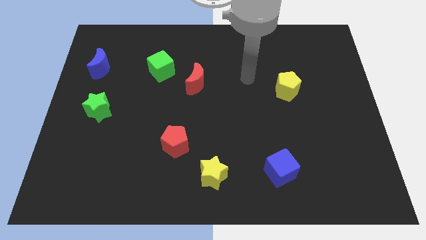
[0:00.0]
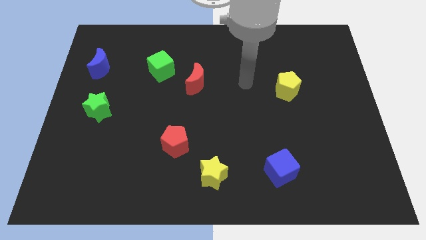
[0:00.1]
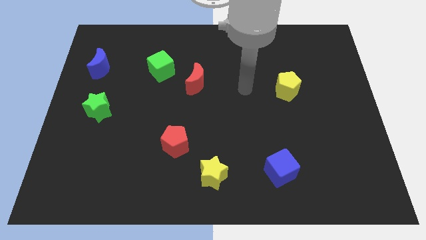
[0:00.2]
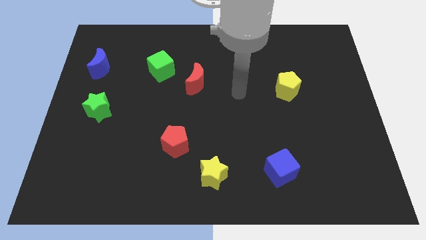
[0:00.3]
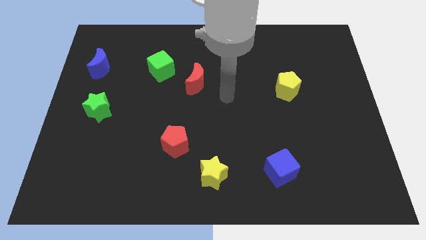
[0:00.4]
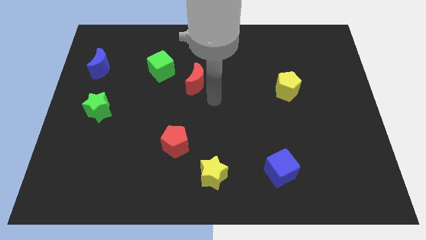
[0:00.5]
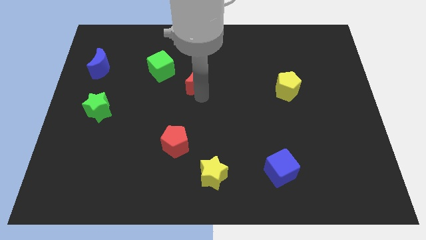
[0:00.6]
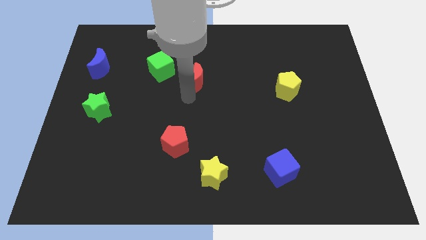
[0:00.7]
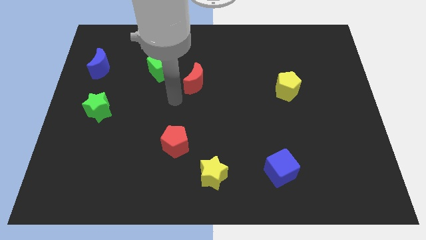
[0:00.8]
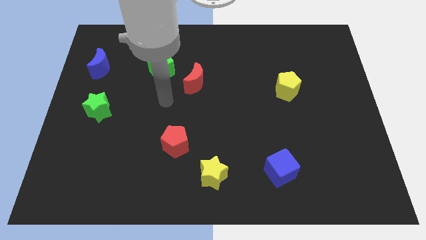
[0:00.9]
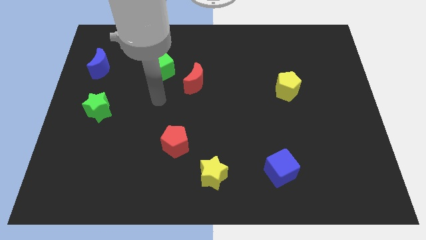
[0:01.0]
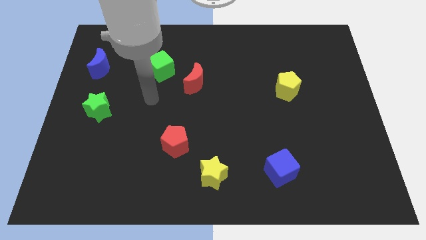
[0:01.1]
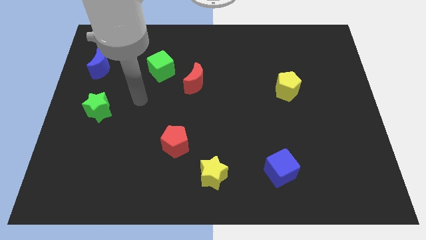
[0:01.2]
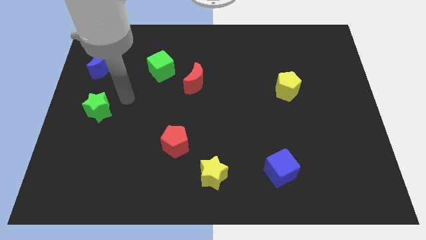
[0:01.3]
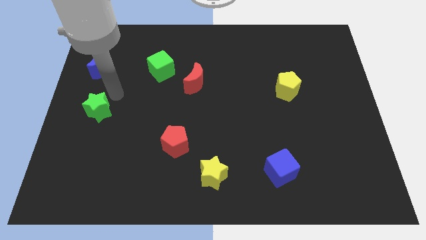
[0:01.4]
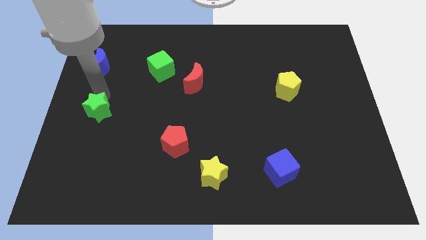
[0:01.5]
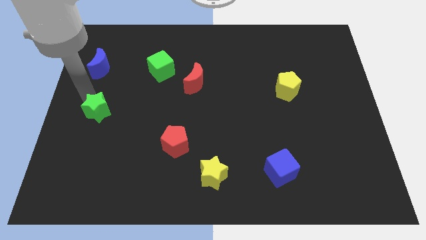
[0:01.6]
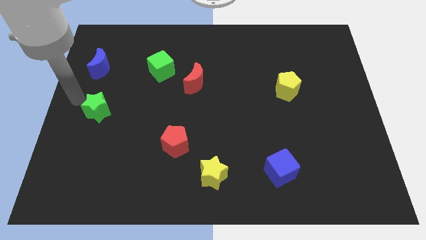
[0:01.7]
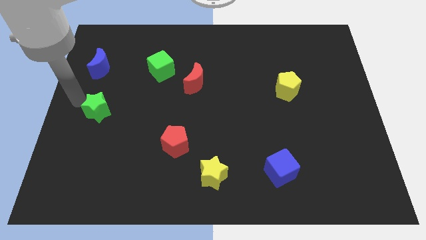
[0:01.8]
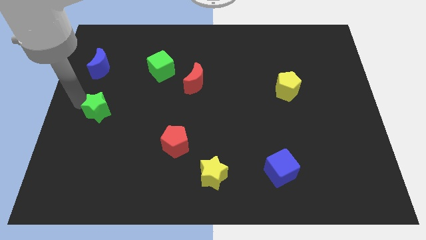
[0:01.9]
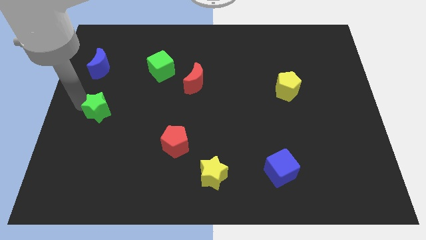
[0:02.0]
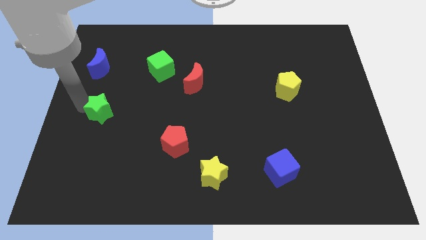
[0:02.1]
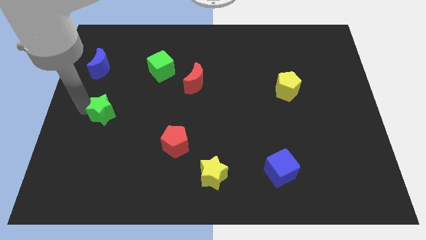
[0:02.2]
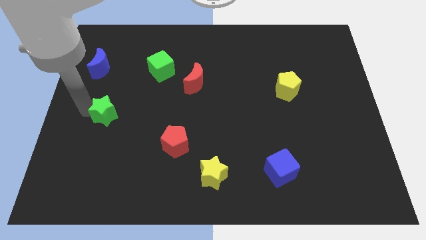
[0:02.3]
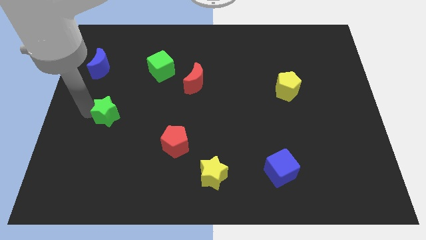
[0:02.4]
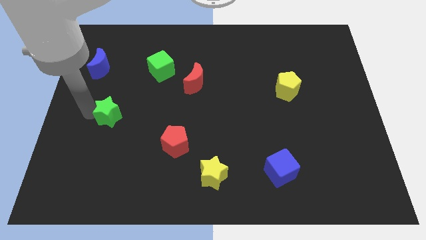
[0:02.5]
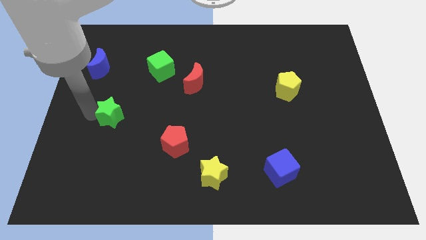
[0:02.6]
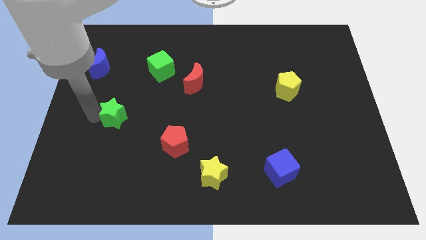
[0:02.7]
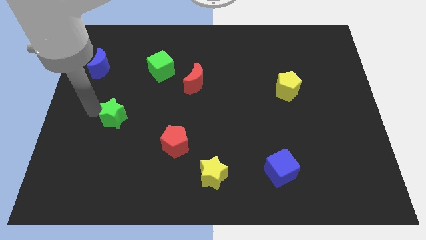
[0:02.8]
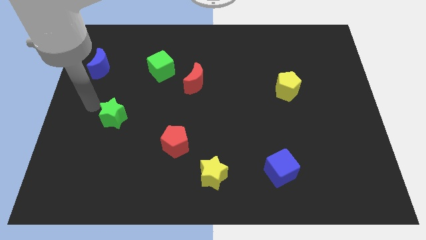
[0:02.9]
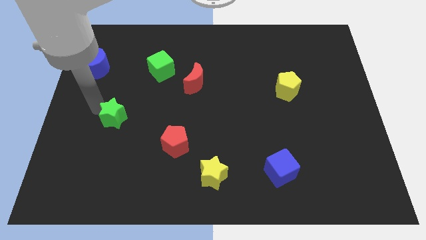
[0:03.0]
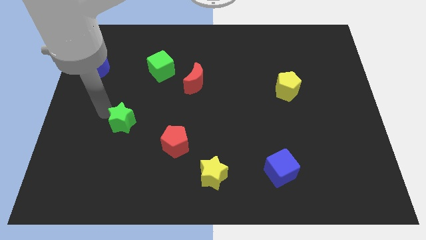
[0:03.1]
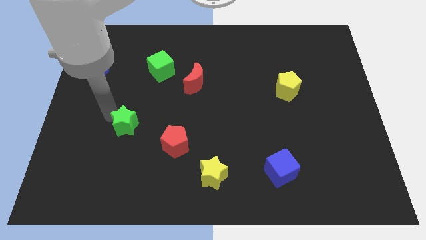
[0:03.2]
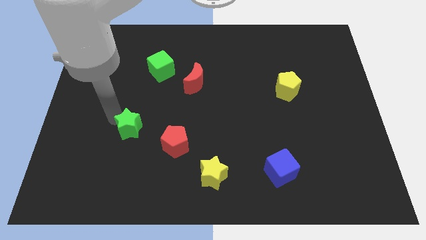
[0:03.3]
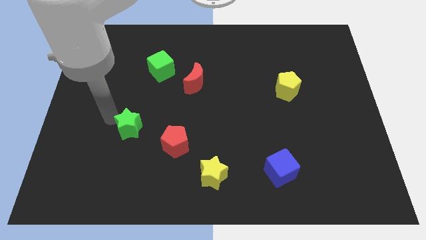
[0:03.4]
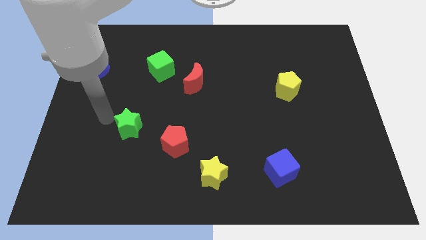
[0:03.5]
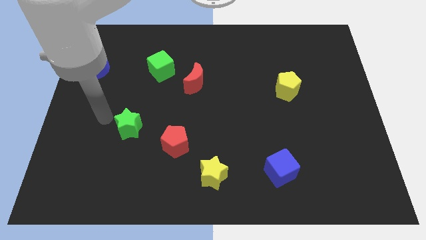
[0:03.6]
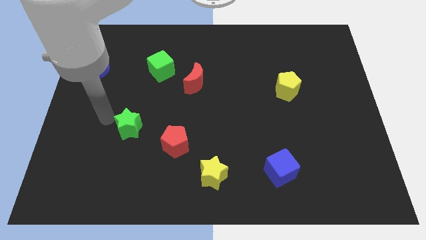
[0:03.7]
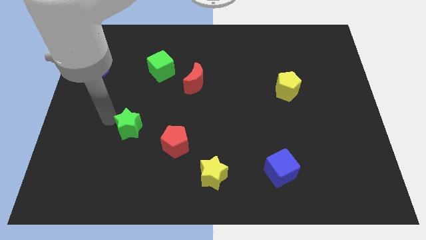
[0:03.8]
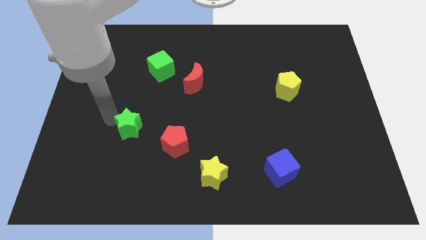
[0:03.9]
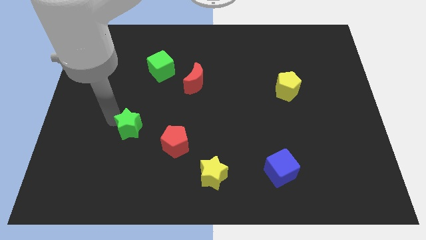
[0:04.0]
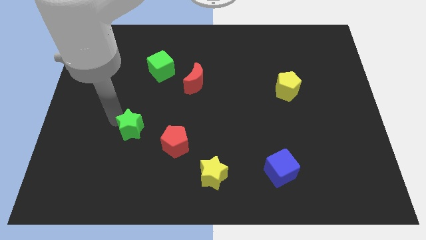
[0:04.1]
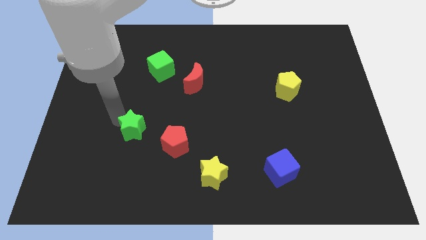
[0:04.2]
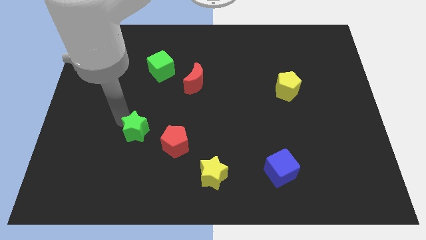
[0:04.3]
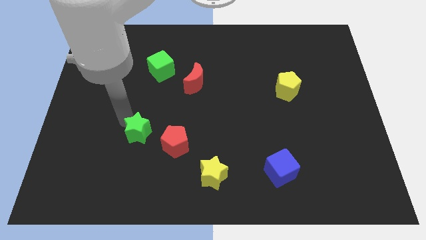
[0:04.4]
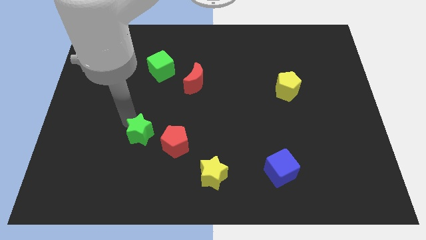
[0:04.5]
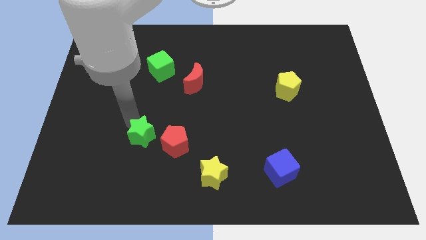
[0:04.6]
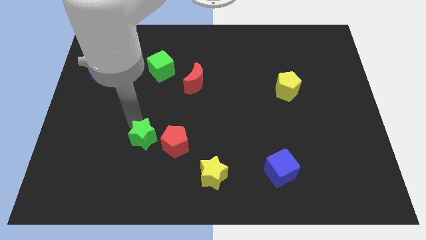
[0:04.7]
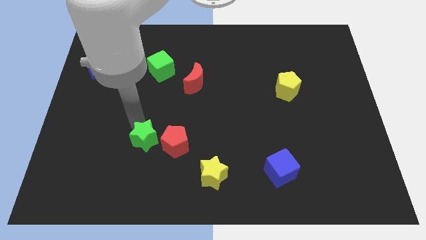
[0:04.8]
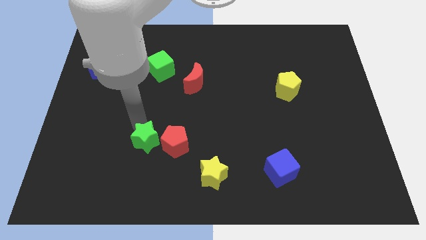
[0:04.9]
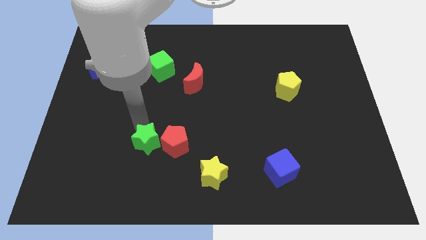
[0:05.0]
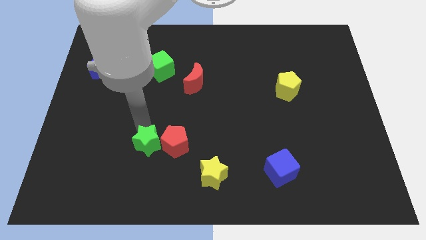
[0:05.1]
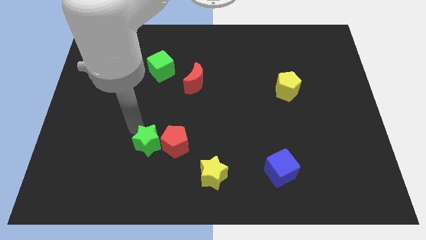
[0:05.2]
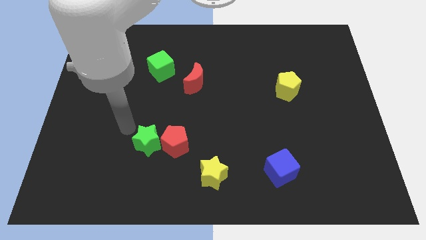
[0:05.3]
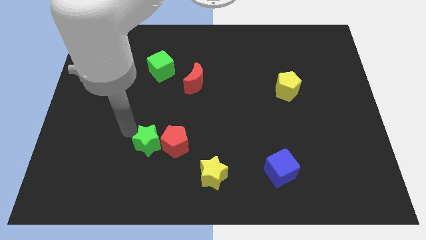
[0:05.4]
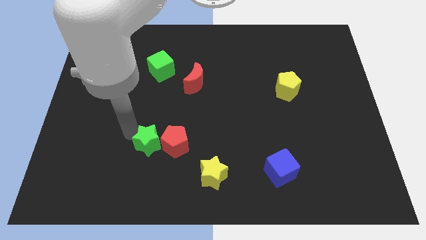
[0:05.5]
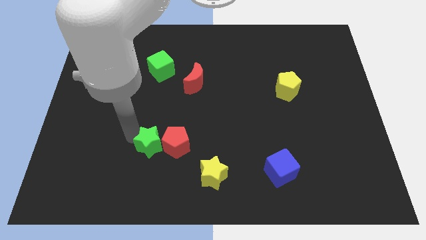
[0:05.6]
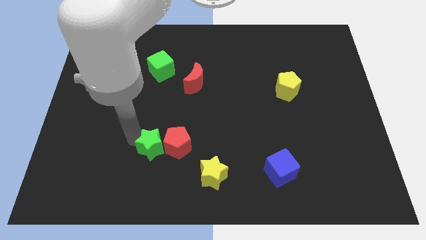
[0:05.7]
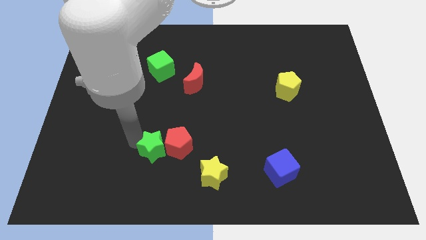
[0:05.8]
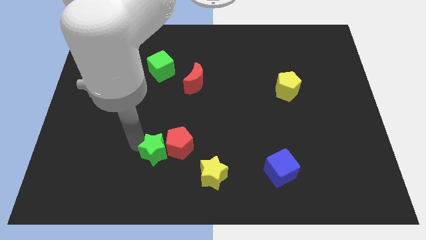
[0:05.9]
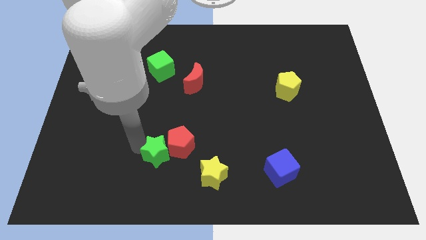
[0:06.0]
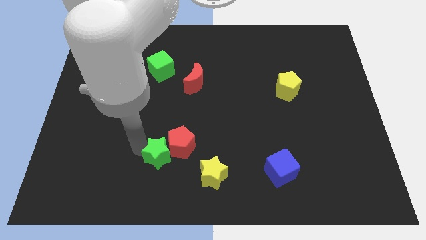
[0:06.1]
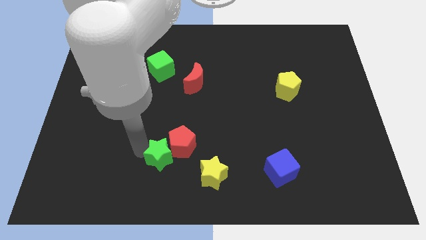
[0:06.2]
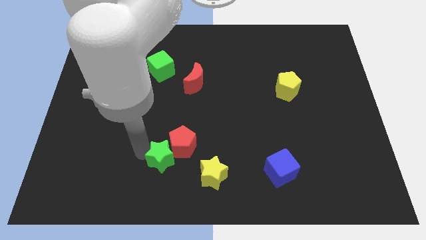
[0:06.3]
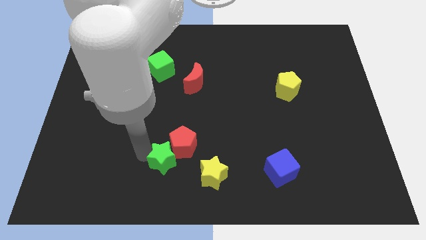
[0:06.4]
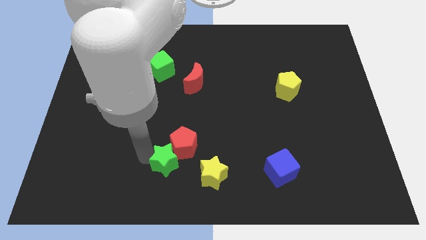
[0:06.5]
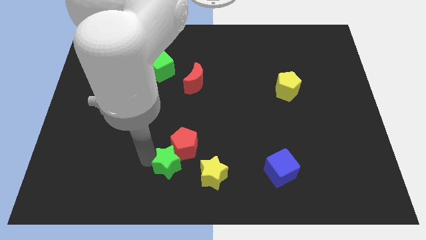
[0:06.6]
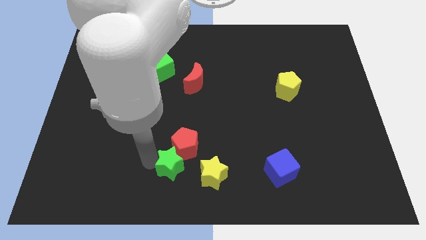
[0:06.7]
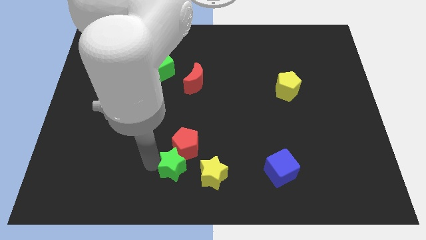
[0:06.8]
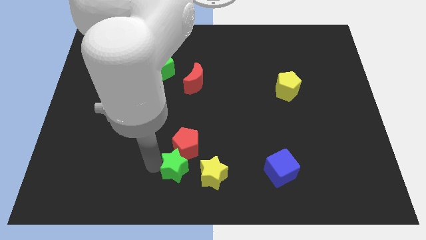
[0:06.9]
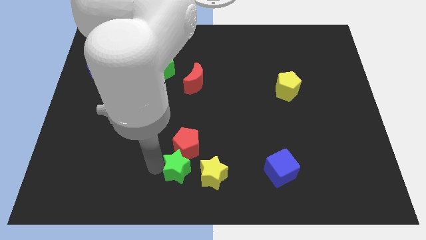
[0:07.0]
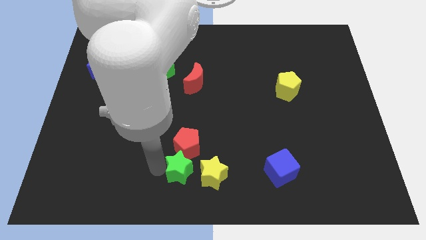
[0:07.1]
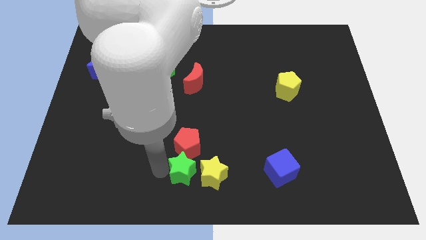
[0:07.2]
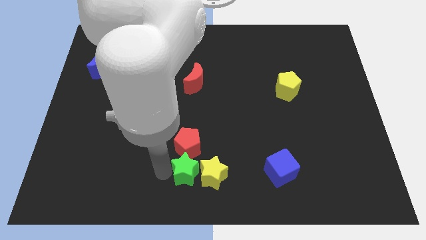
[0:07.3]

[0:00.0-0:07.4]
put the green star towards the yellow star
